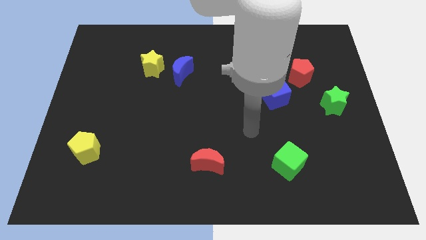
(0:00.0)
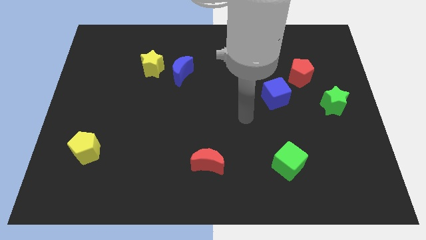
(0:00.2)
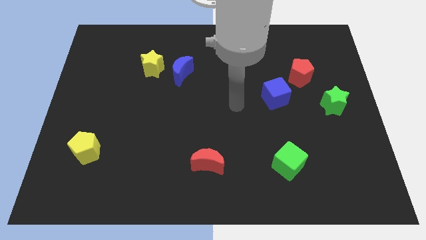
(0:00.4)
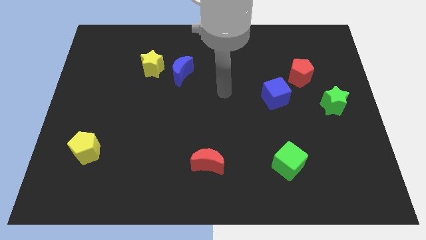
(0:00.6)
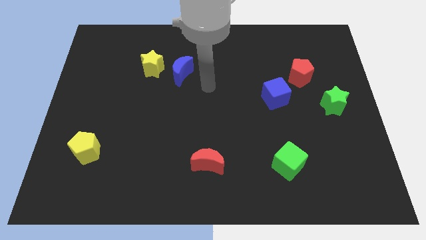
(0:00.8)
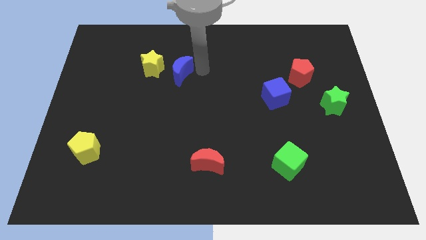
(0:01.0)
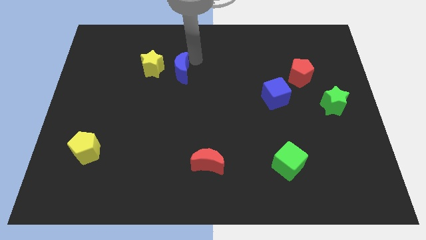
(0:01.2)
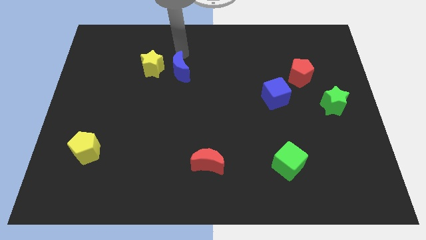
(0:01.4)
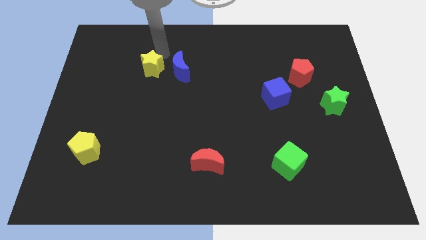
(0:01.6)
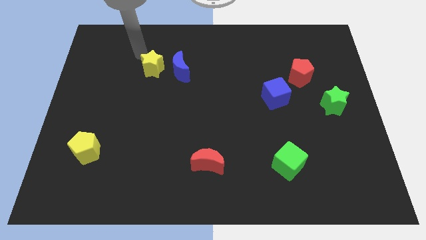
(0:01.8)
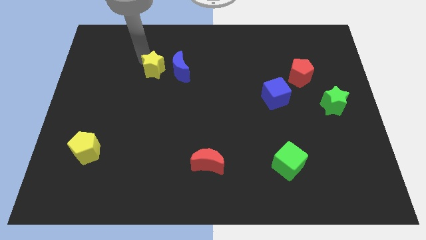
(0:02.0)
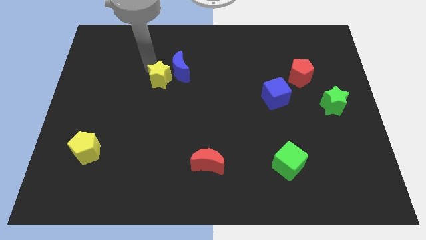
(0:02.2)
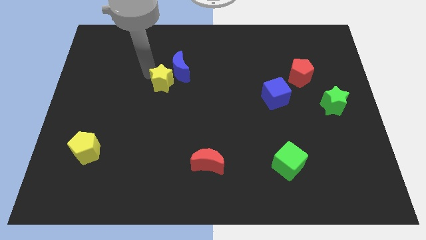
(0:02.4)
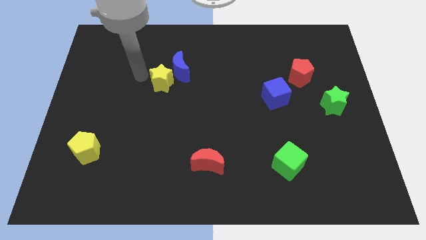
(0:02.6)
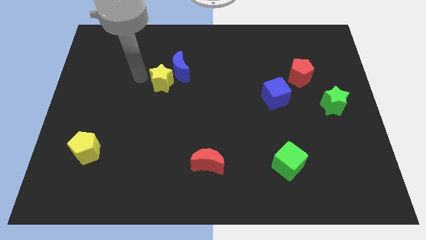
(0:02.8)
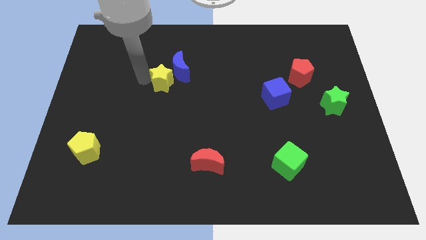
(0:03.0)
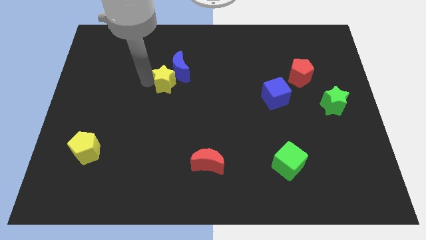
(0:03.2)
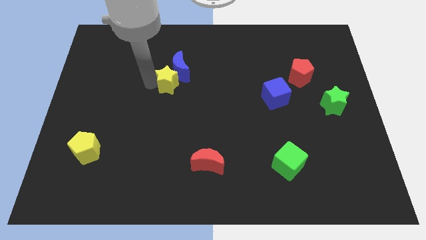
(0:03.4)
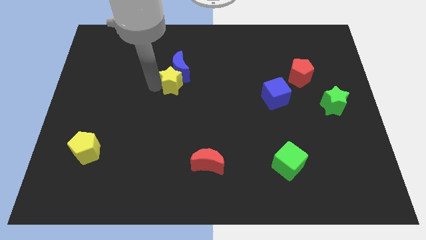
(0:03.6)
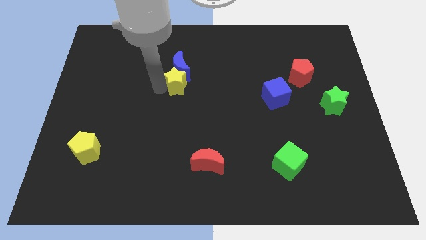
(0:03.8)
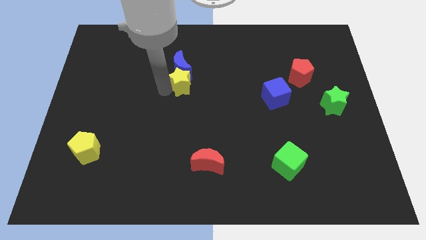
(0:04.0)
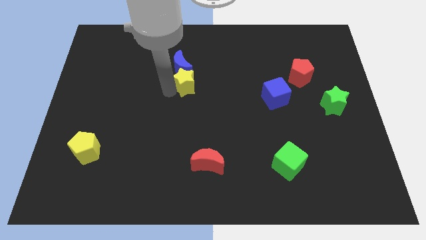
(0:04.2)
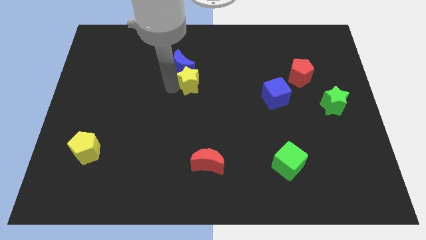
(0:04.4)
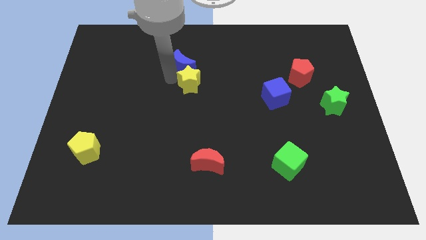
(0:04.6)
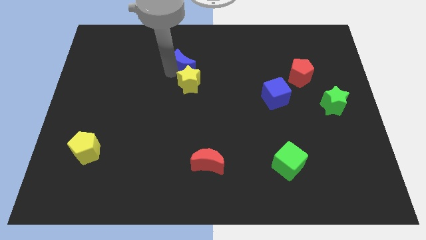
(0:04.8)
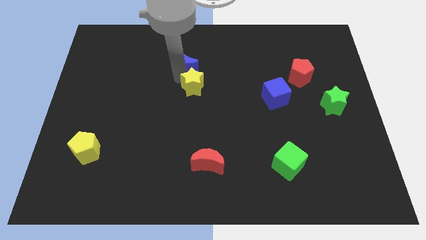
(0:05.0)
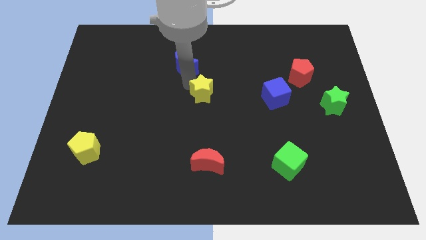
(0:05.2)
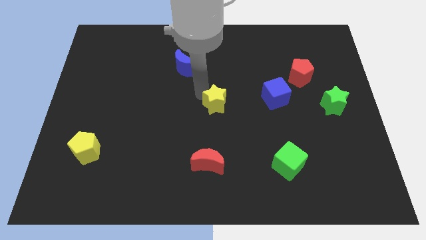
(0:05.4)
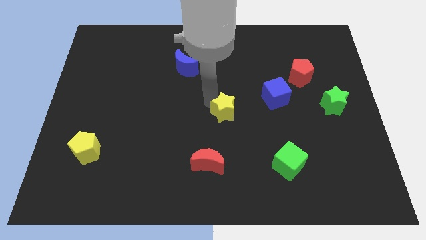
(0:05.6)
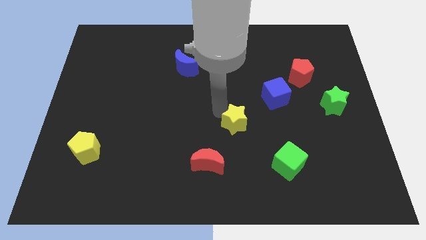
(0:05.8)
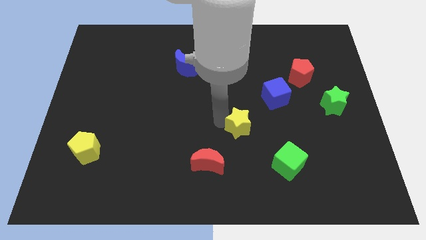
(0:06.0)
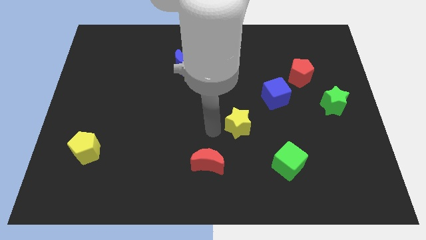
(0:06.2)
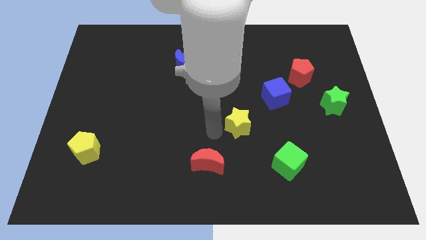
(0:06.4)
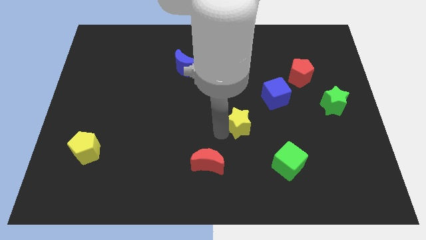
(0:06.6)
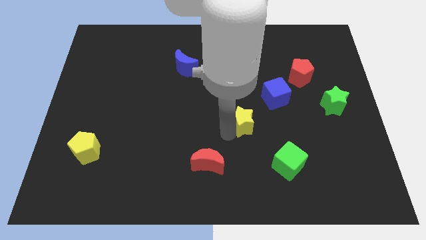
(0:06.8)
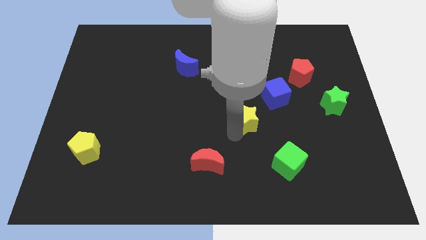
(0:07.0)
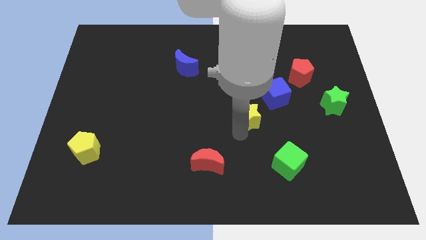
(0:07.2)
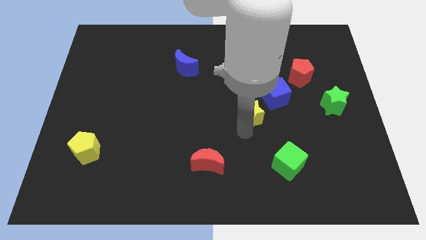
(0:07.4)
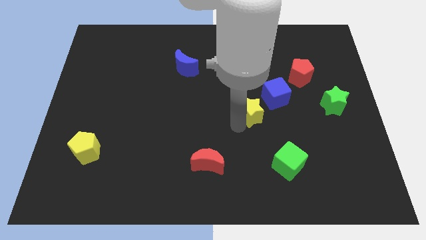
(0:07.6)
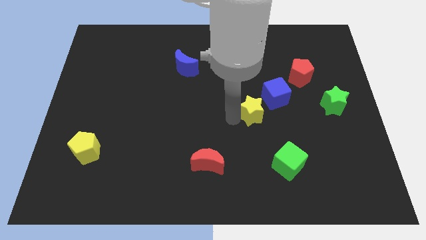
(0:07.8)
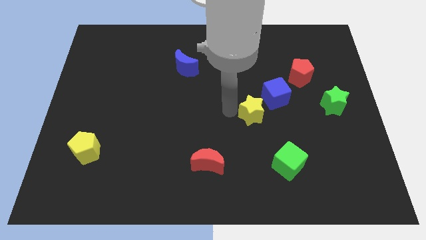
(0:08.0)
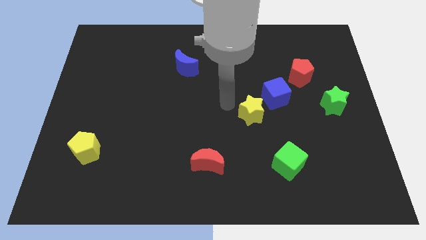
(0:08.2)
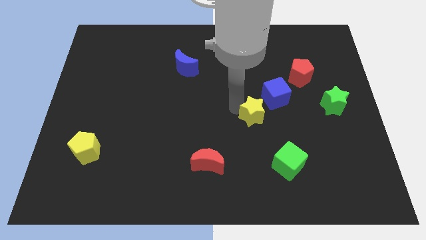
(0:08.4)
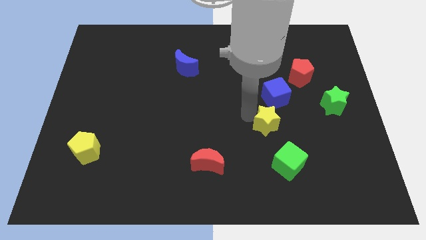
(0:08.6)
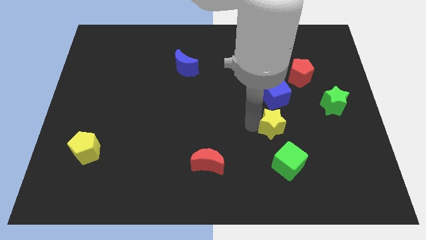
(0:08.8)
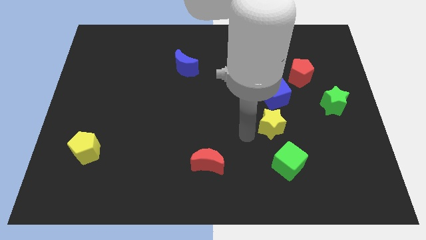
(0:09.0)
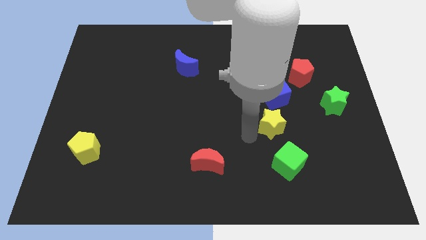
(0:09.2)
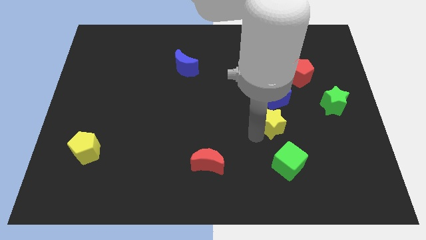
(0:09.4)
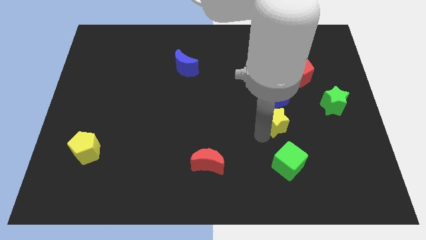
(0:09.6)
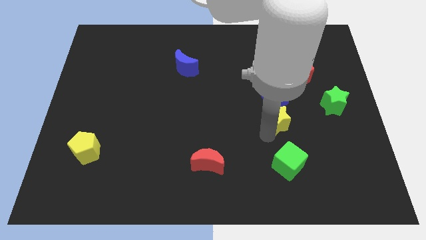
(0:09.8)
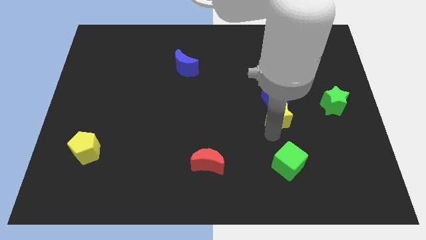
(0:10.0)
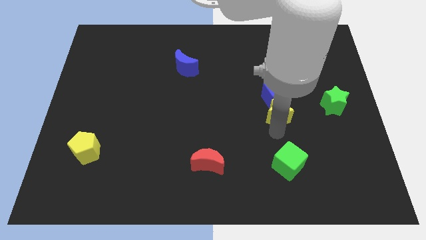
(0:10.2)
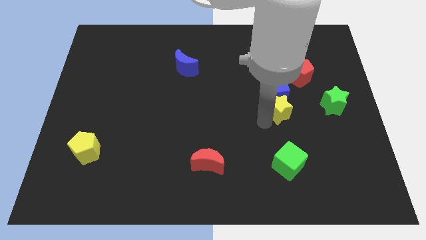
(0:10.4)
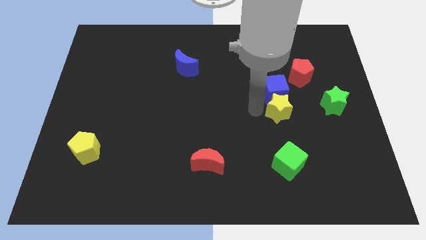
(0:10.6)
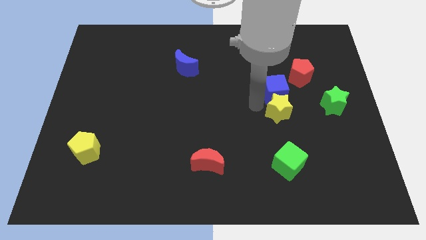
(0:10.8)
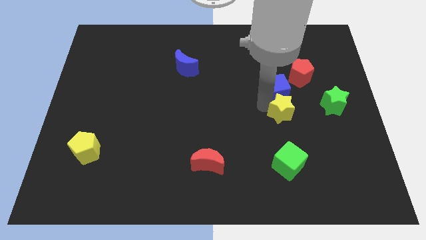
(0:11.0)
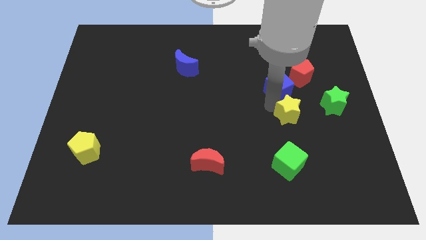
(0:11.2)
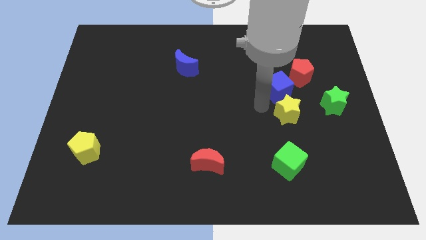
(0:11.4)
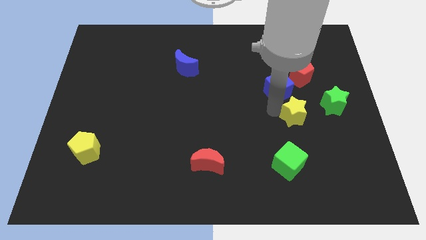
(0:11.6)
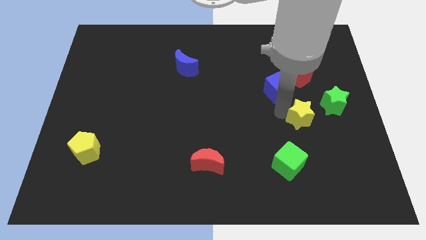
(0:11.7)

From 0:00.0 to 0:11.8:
move the yellow star to the bottom left of the green star

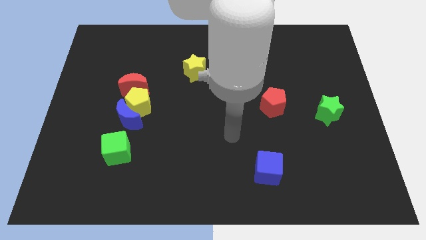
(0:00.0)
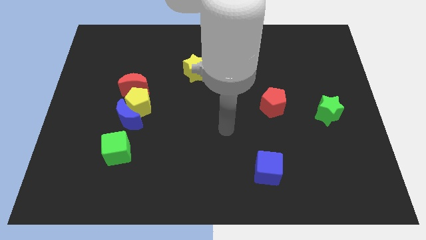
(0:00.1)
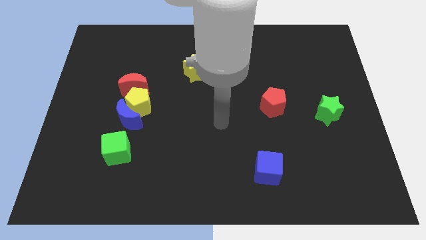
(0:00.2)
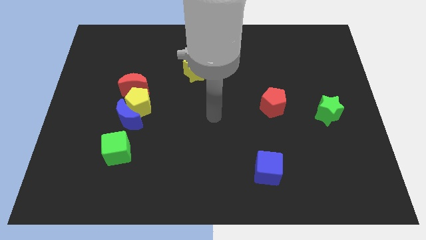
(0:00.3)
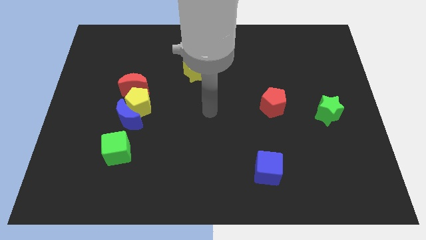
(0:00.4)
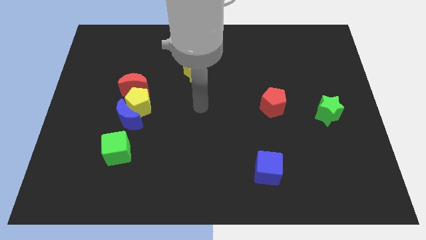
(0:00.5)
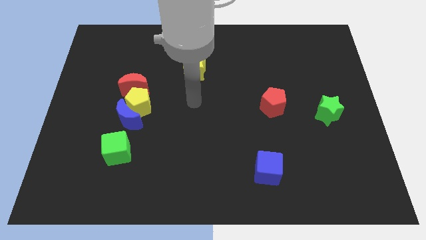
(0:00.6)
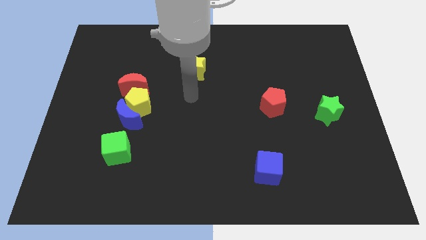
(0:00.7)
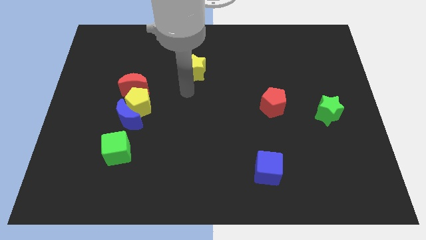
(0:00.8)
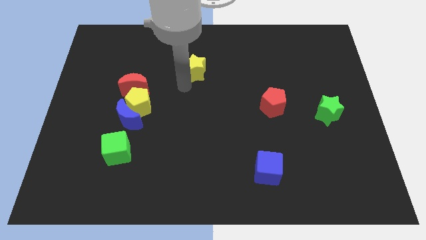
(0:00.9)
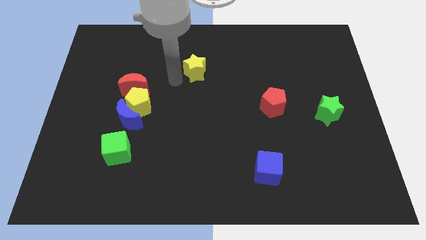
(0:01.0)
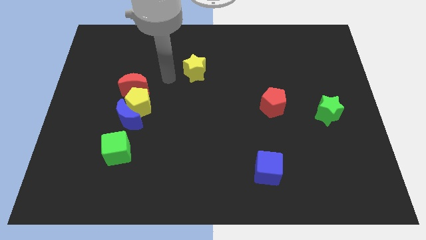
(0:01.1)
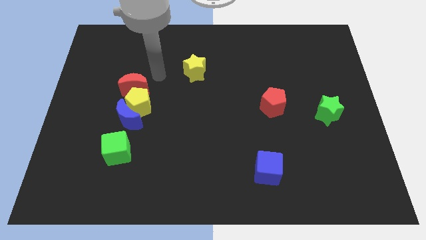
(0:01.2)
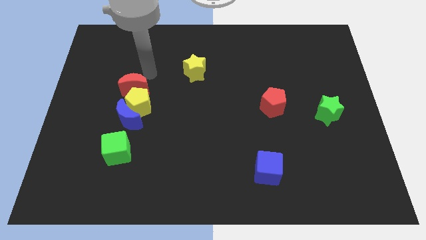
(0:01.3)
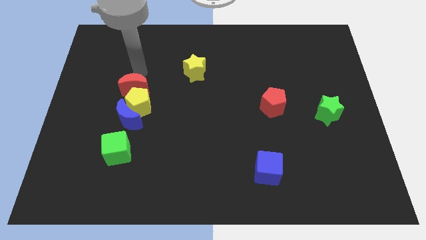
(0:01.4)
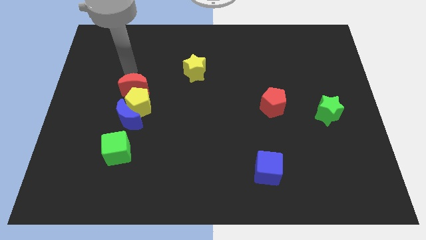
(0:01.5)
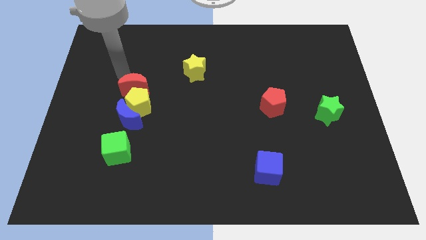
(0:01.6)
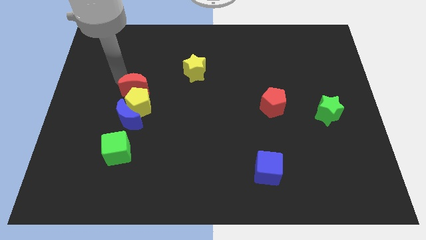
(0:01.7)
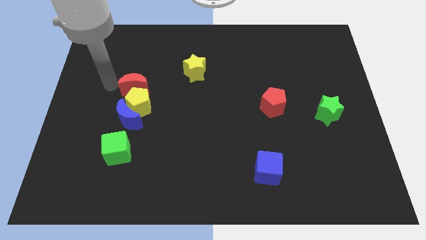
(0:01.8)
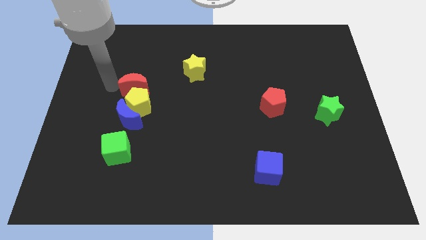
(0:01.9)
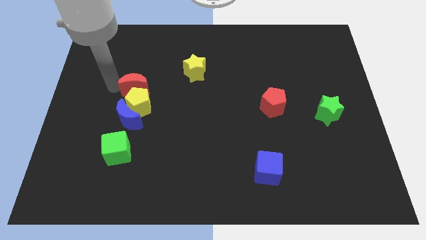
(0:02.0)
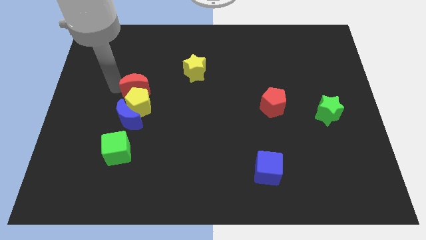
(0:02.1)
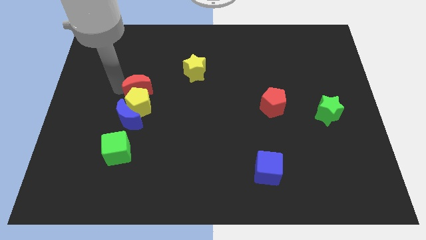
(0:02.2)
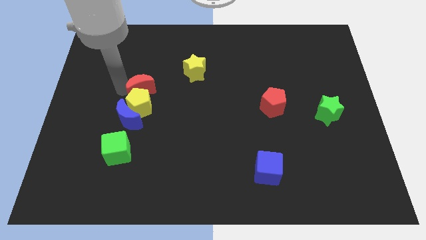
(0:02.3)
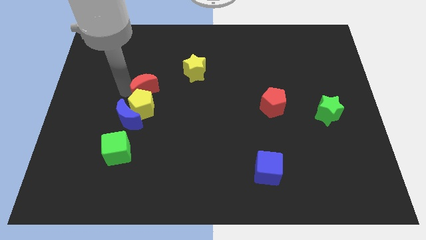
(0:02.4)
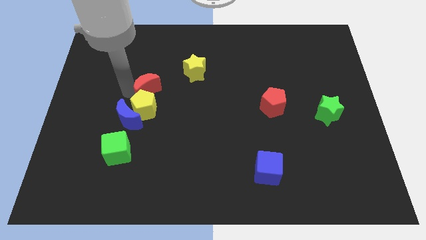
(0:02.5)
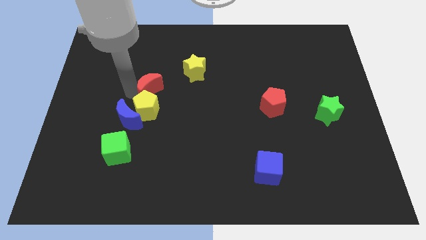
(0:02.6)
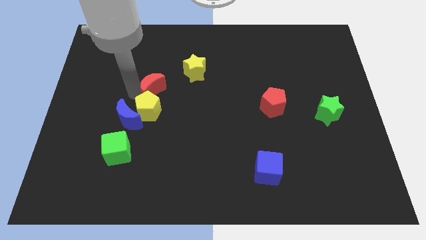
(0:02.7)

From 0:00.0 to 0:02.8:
slide the red moon diagonally down and to the left of the yellow star
